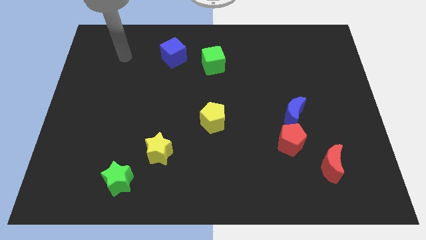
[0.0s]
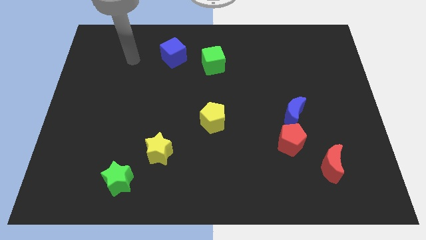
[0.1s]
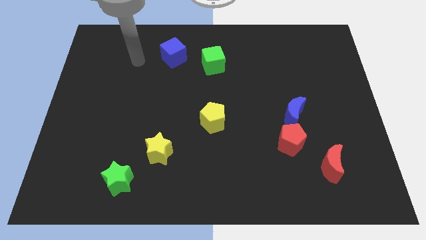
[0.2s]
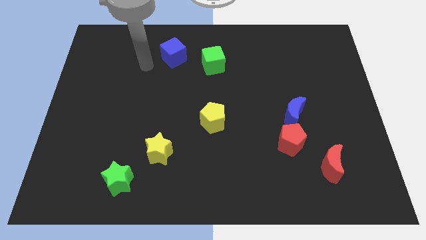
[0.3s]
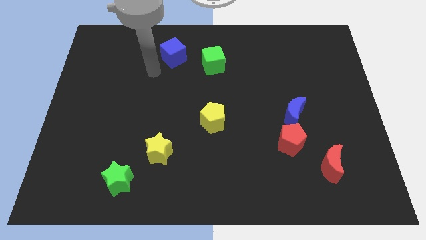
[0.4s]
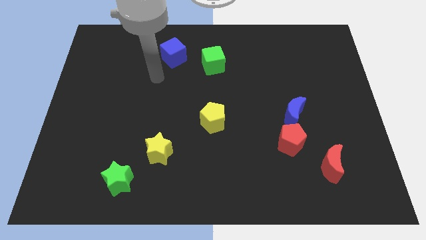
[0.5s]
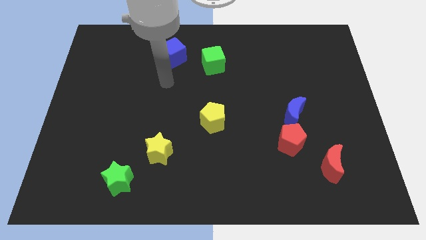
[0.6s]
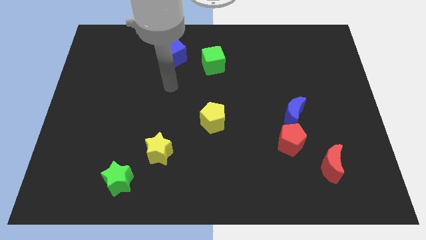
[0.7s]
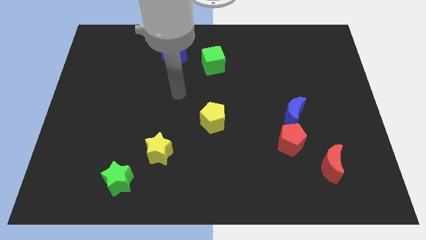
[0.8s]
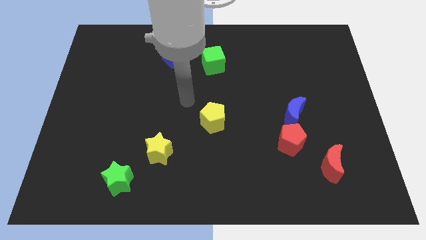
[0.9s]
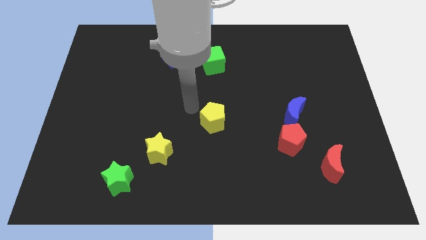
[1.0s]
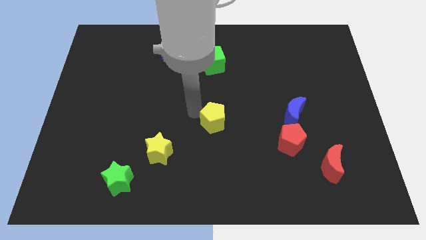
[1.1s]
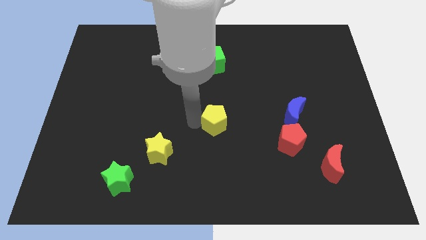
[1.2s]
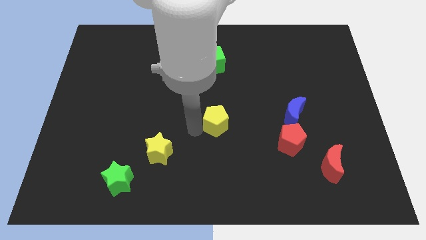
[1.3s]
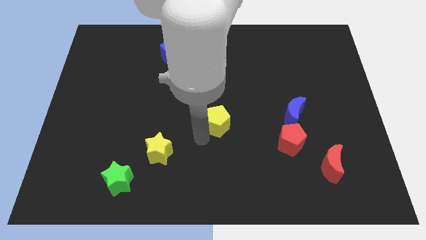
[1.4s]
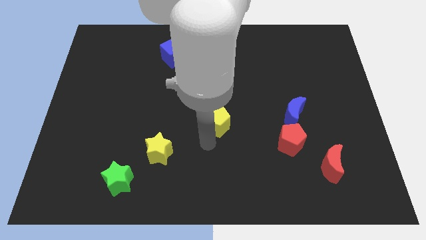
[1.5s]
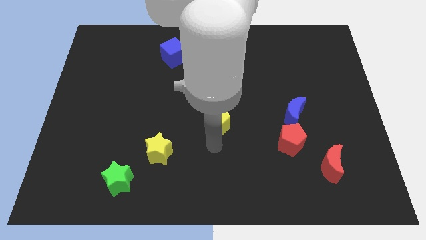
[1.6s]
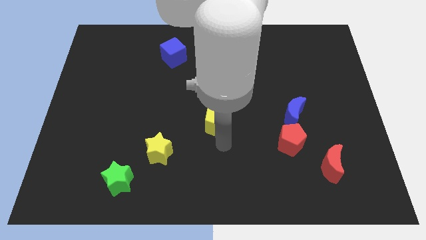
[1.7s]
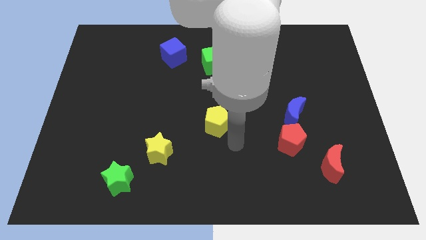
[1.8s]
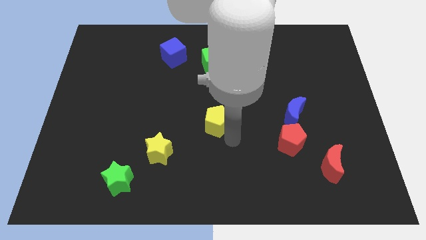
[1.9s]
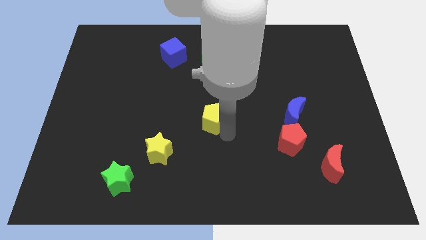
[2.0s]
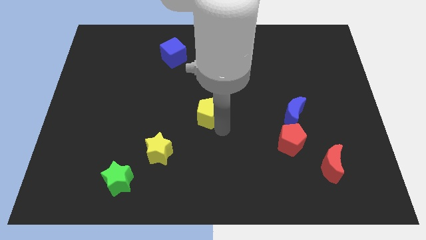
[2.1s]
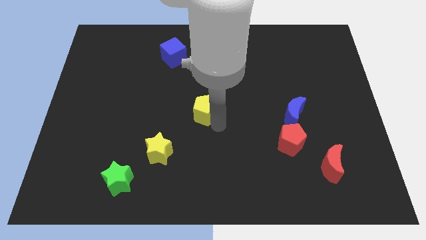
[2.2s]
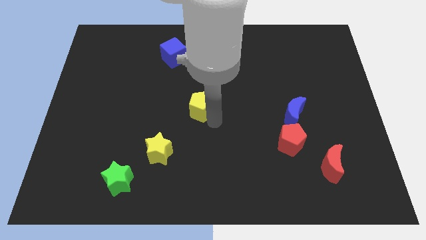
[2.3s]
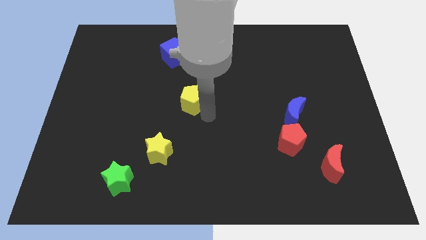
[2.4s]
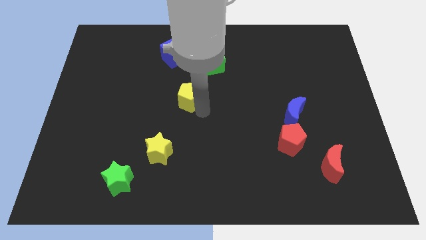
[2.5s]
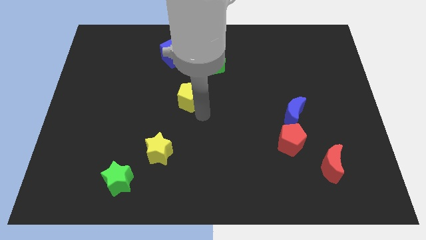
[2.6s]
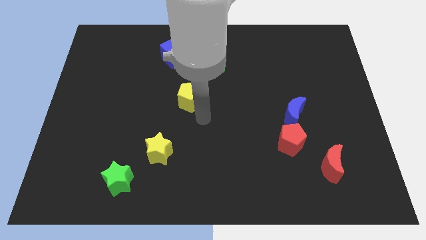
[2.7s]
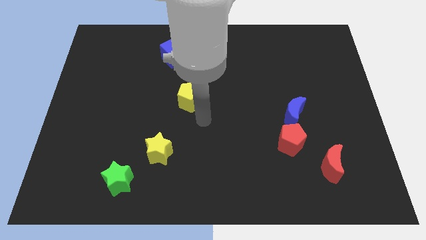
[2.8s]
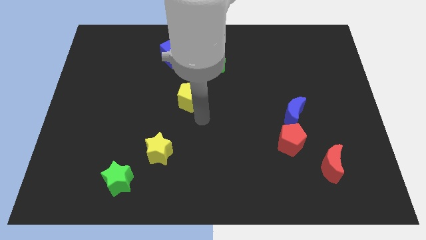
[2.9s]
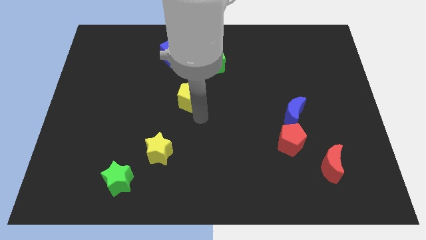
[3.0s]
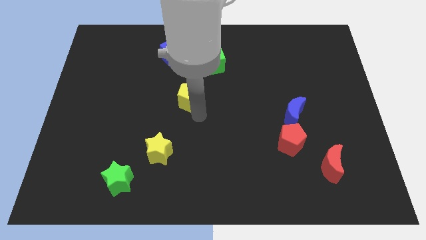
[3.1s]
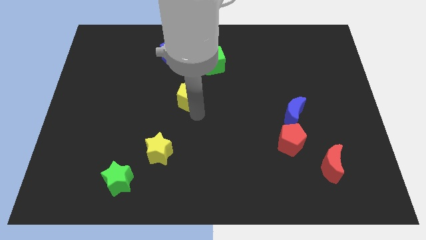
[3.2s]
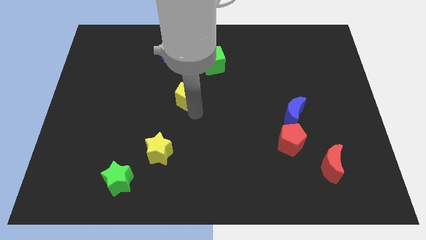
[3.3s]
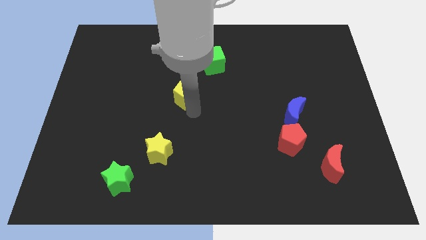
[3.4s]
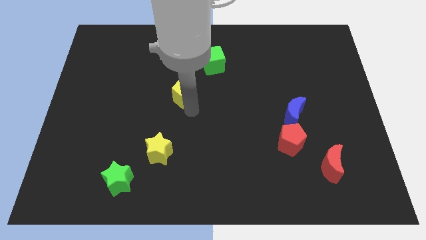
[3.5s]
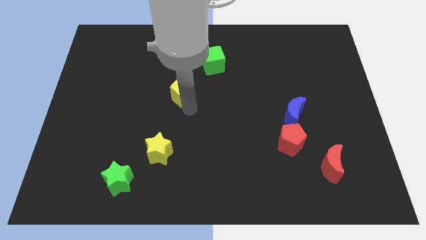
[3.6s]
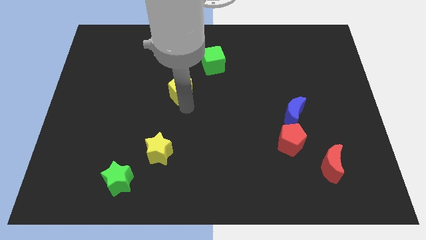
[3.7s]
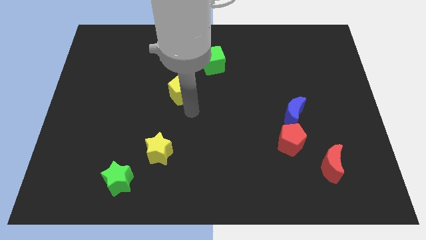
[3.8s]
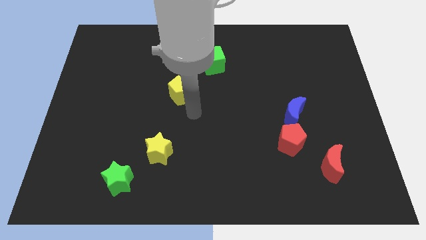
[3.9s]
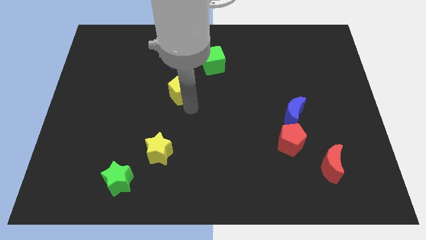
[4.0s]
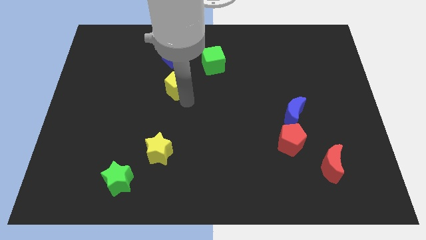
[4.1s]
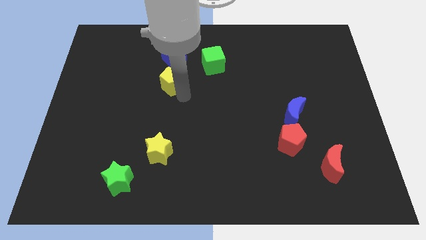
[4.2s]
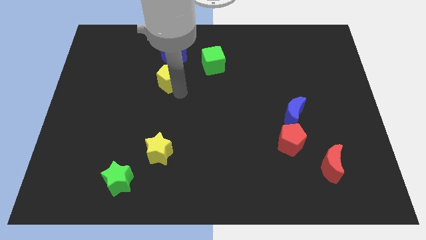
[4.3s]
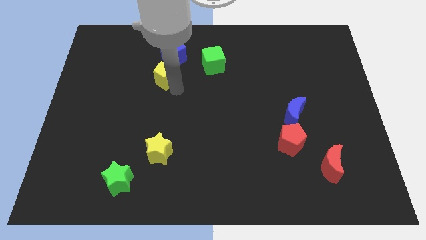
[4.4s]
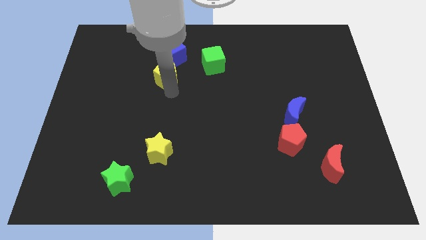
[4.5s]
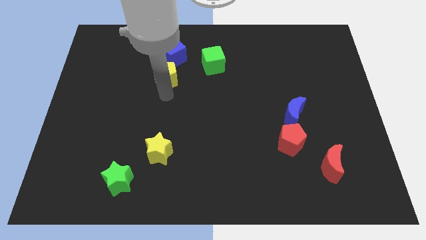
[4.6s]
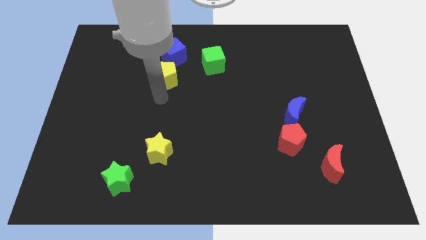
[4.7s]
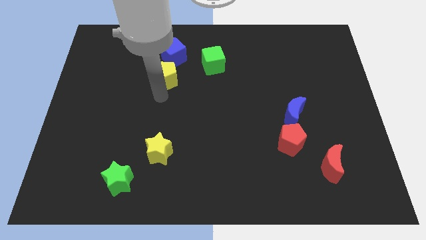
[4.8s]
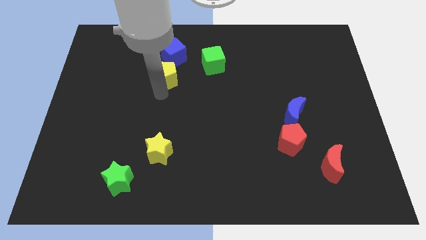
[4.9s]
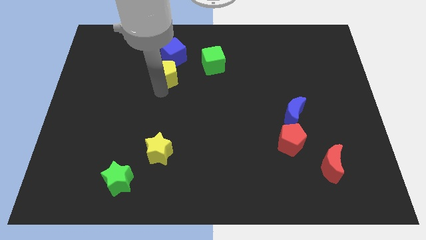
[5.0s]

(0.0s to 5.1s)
put the yellow pentagon just left of the green cube

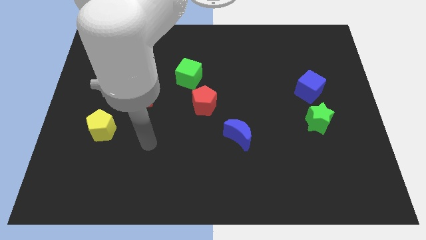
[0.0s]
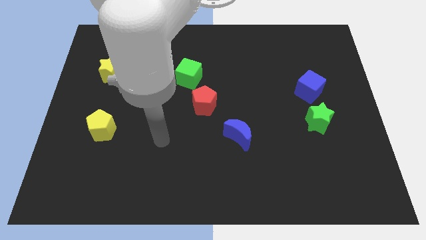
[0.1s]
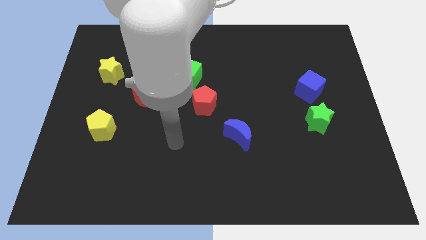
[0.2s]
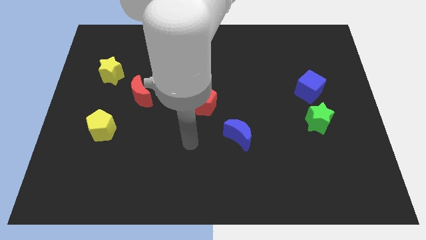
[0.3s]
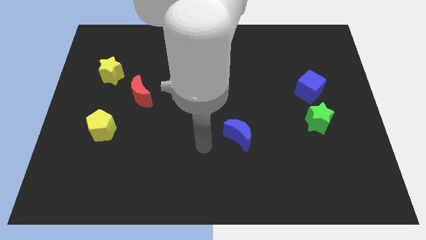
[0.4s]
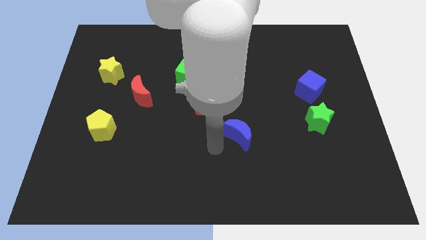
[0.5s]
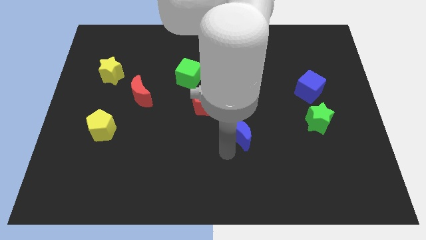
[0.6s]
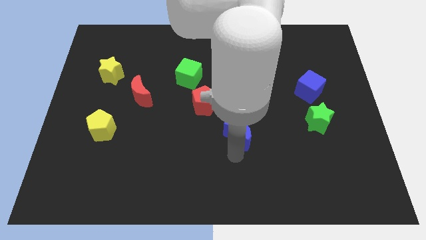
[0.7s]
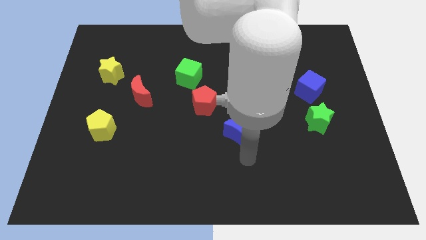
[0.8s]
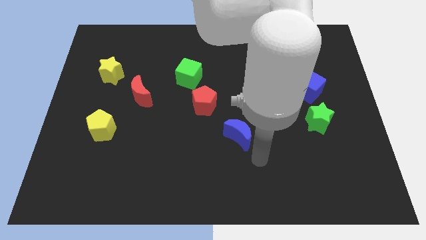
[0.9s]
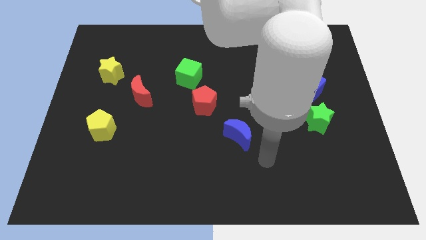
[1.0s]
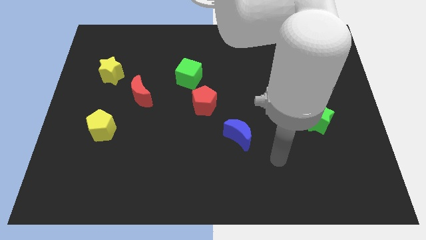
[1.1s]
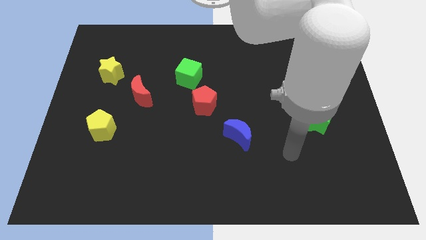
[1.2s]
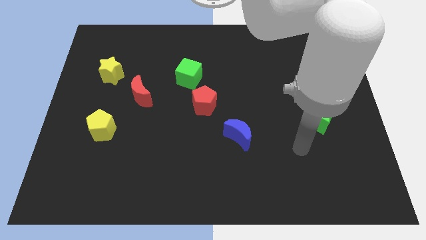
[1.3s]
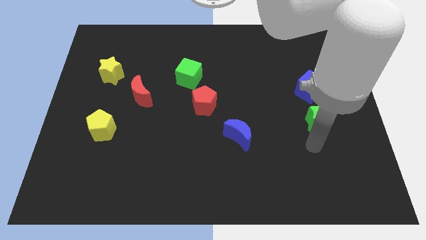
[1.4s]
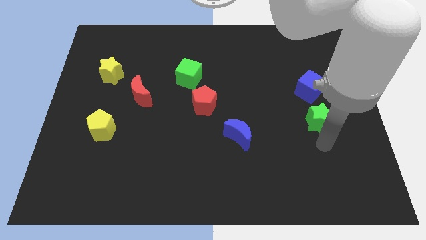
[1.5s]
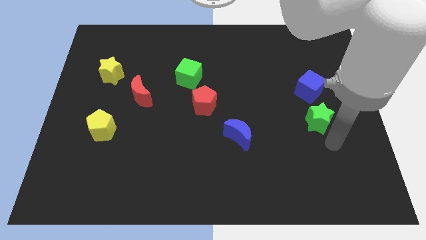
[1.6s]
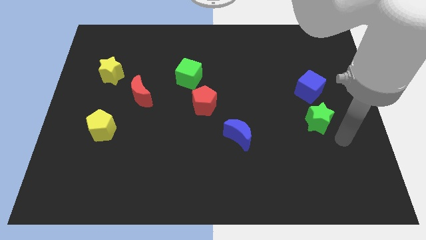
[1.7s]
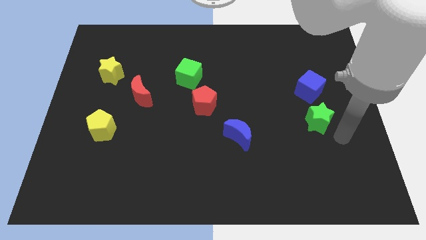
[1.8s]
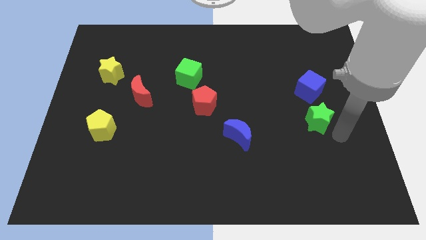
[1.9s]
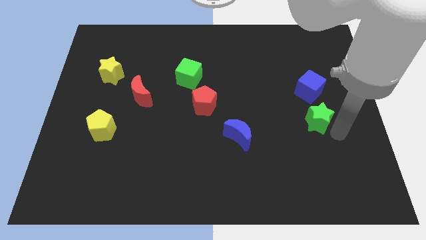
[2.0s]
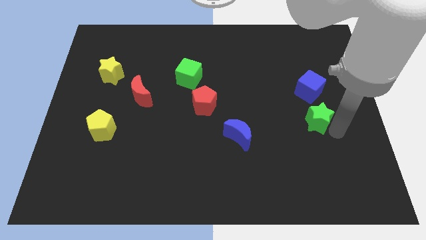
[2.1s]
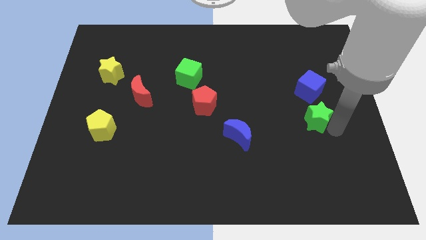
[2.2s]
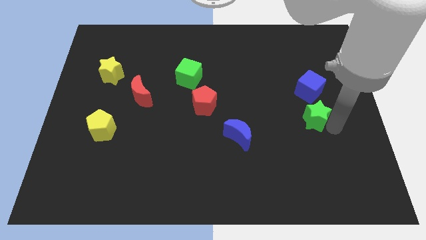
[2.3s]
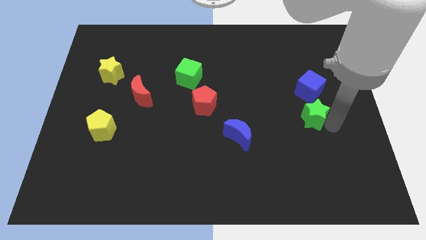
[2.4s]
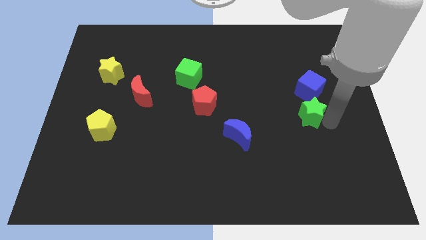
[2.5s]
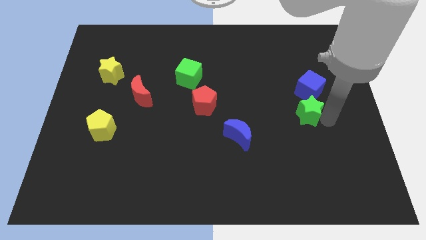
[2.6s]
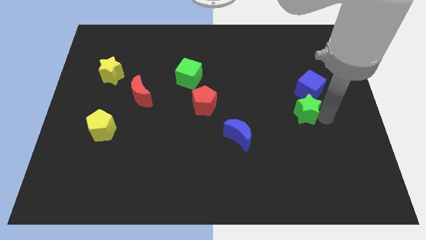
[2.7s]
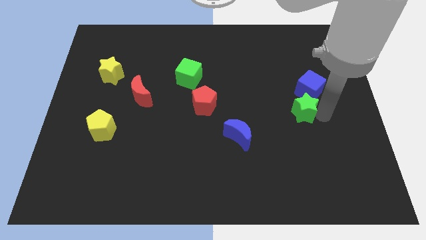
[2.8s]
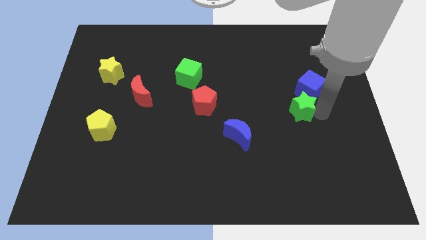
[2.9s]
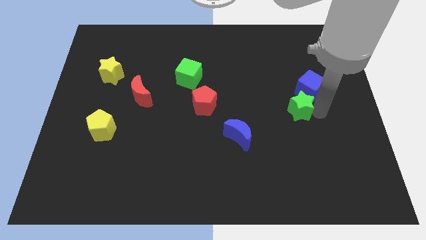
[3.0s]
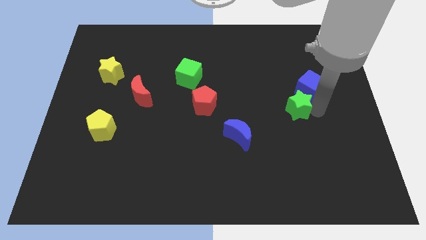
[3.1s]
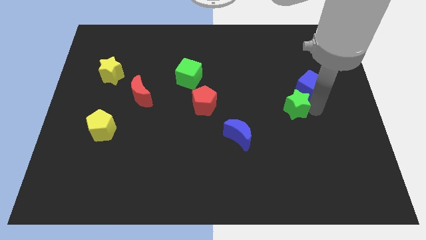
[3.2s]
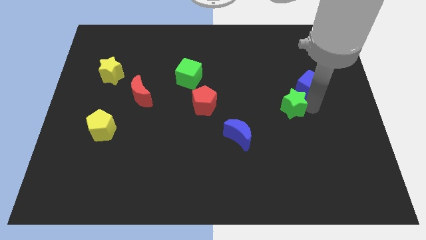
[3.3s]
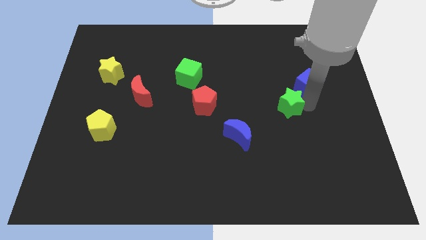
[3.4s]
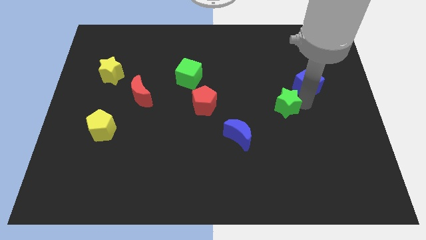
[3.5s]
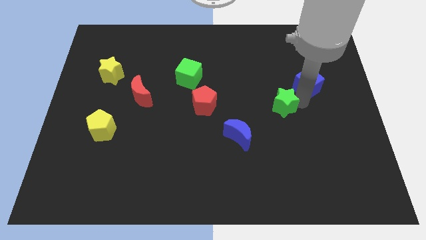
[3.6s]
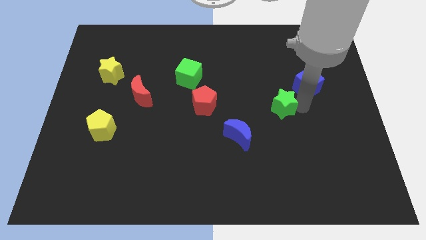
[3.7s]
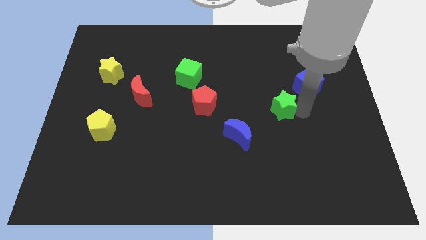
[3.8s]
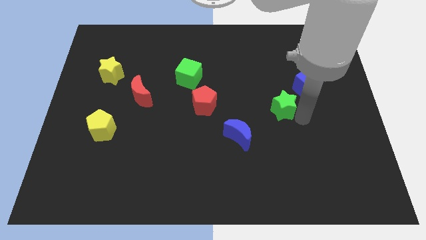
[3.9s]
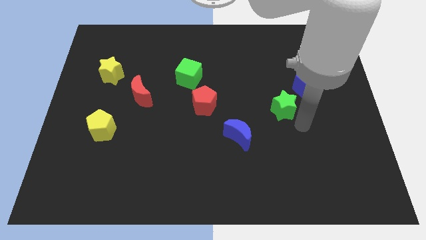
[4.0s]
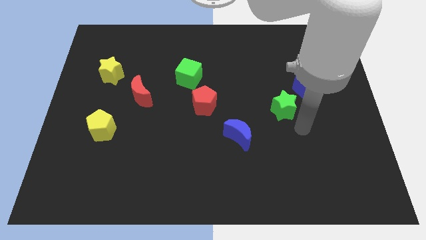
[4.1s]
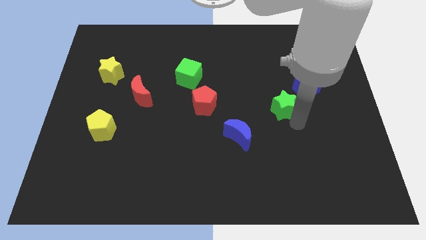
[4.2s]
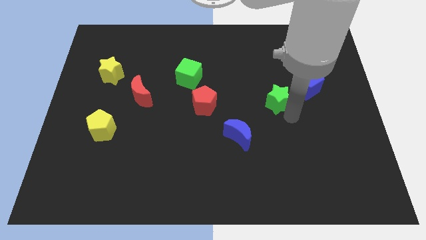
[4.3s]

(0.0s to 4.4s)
push the green star to the left of the blue cube
